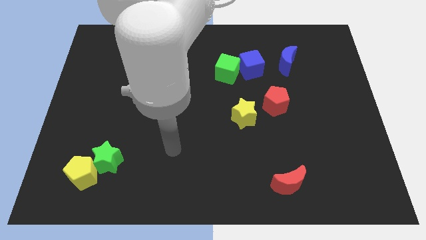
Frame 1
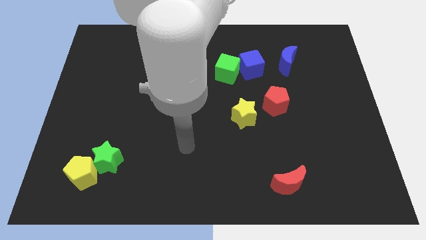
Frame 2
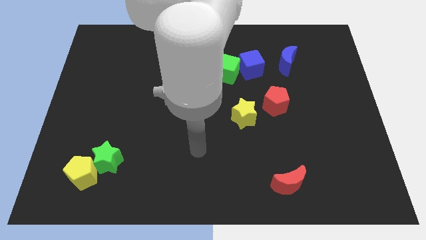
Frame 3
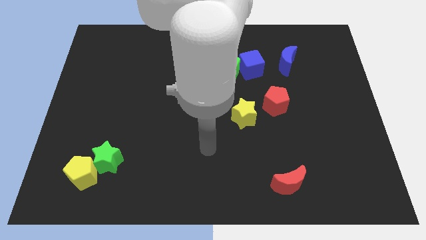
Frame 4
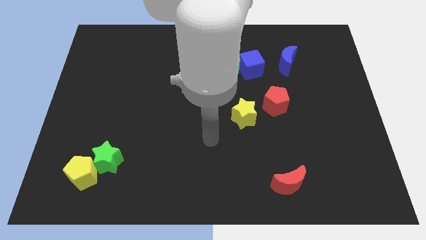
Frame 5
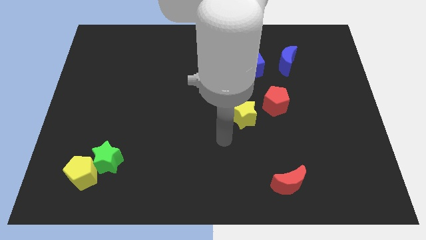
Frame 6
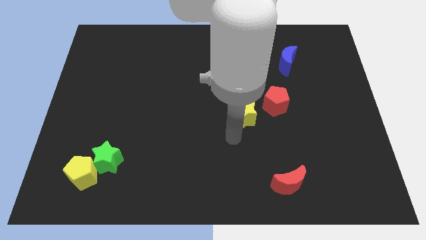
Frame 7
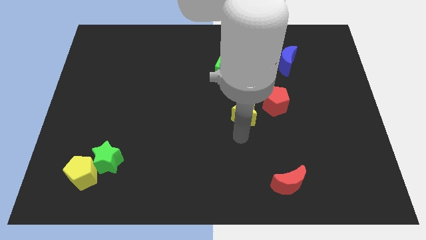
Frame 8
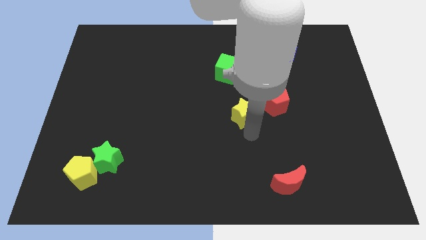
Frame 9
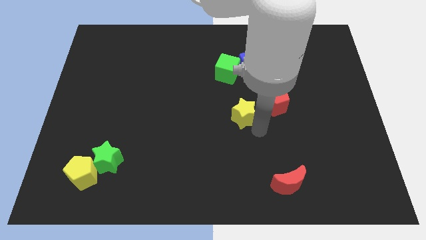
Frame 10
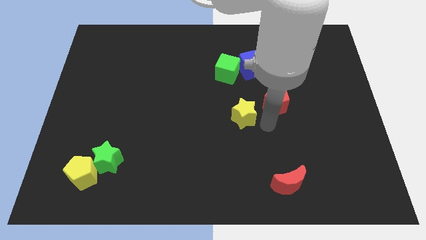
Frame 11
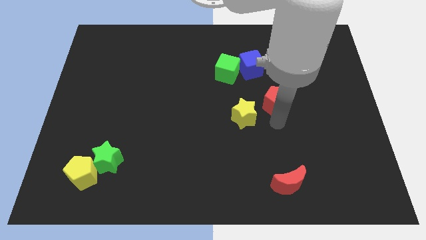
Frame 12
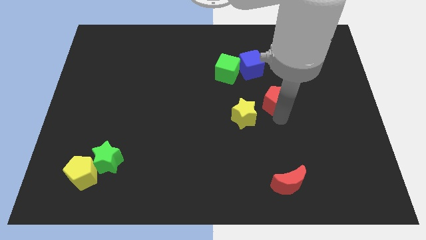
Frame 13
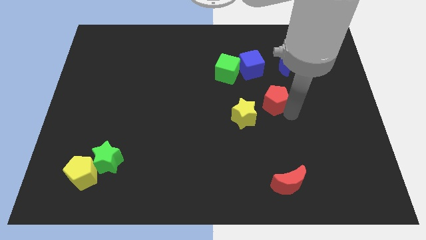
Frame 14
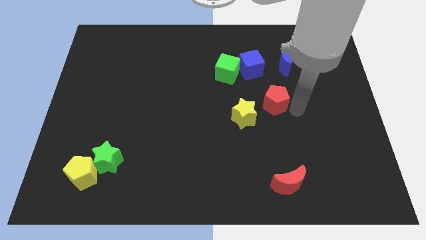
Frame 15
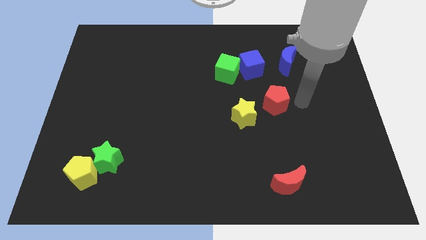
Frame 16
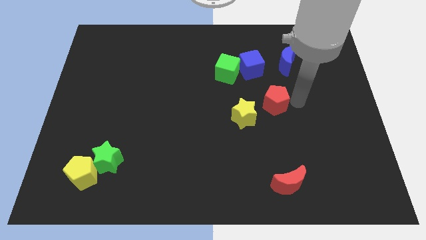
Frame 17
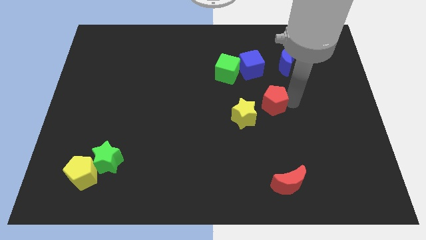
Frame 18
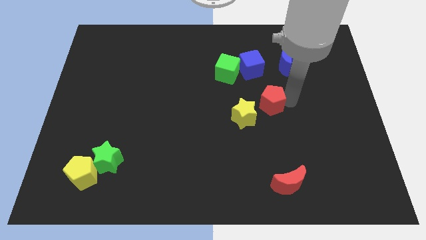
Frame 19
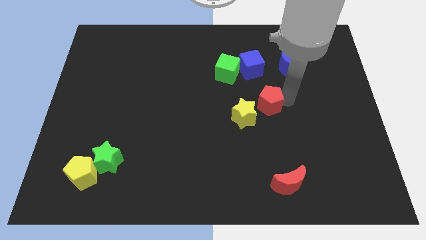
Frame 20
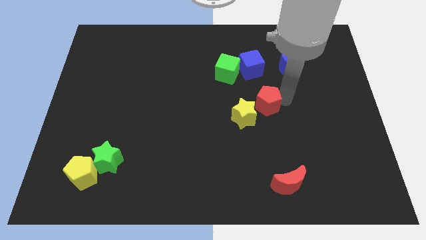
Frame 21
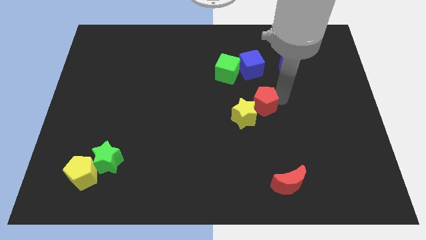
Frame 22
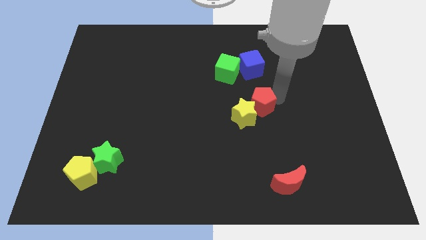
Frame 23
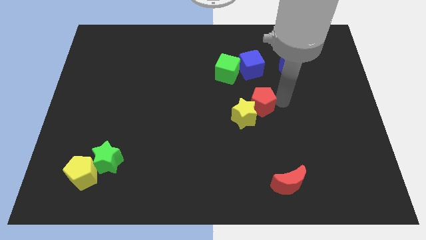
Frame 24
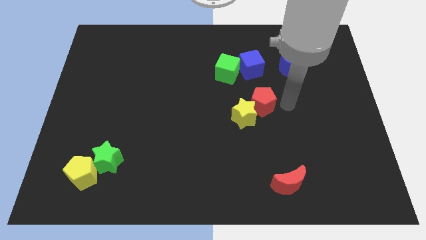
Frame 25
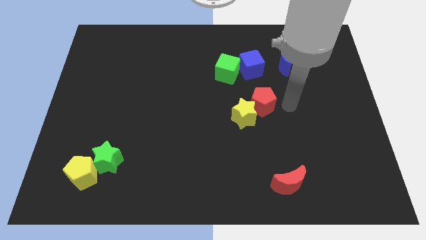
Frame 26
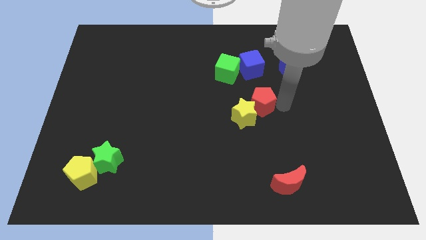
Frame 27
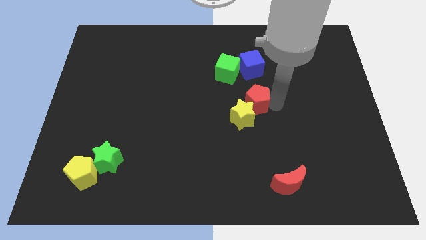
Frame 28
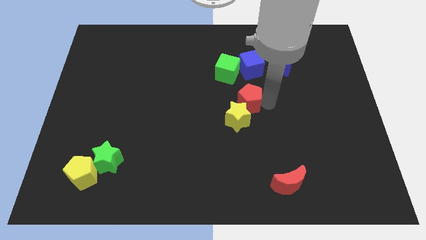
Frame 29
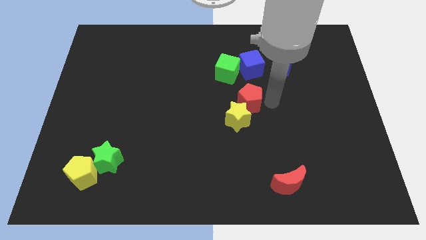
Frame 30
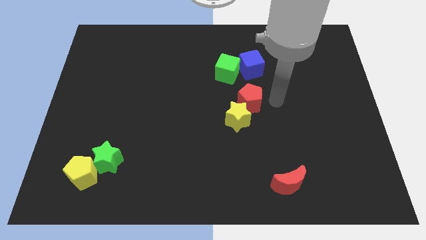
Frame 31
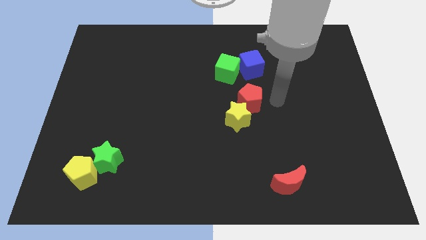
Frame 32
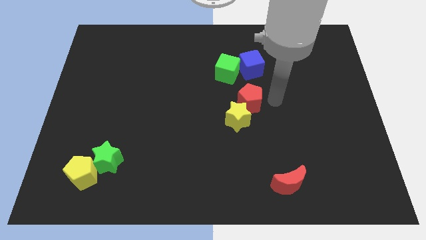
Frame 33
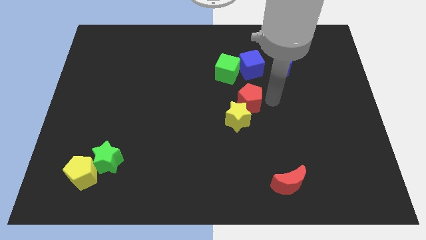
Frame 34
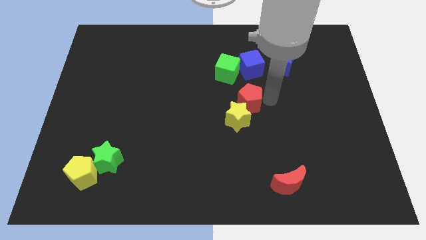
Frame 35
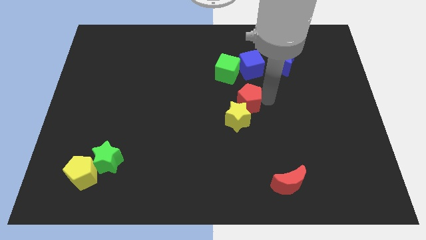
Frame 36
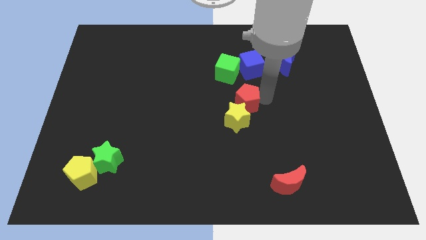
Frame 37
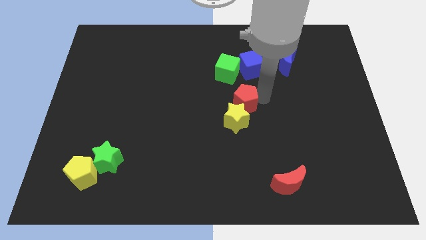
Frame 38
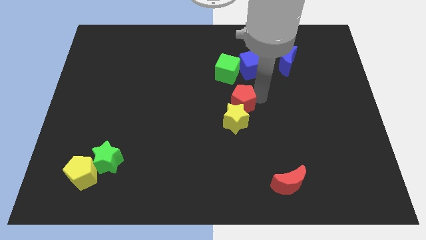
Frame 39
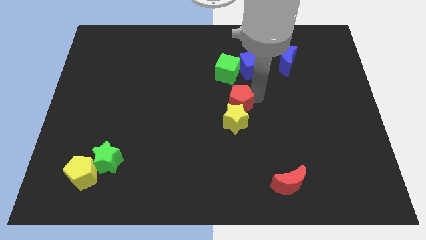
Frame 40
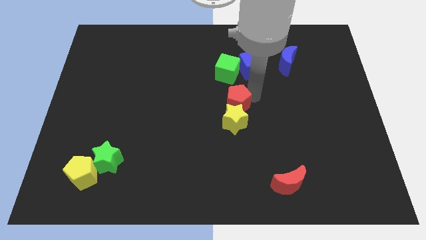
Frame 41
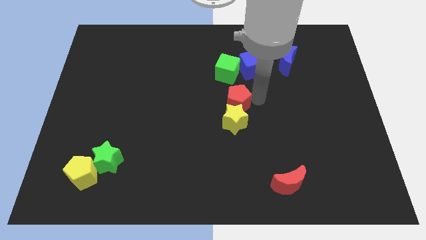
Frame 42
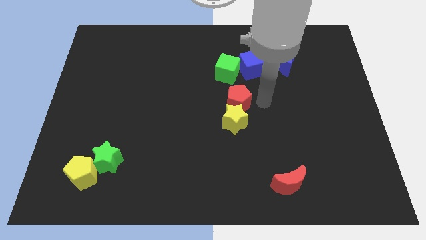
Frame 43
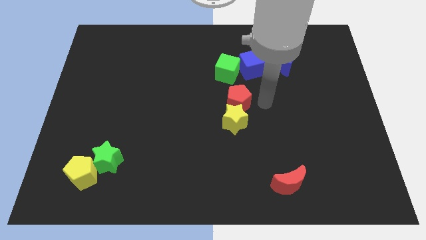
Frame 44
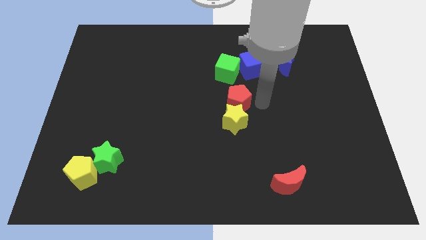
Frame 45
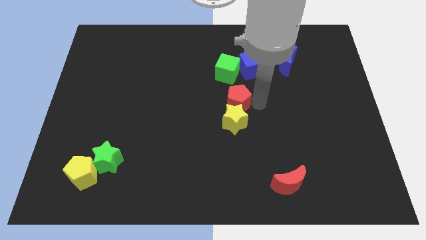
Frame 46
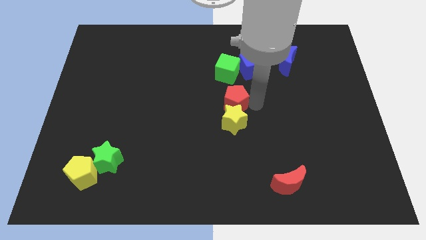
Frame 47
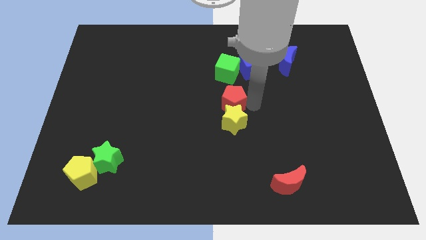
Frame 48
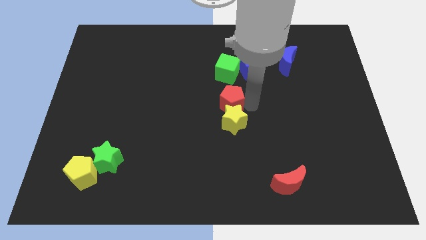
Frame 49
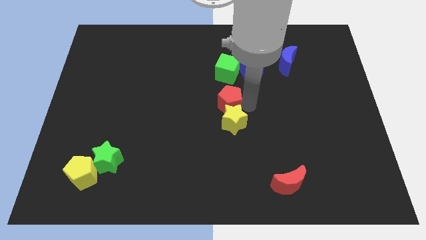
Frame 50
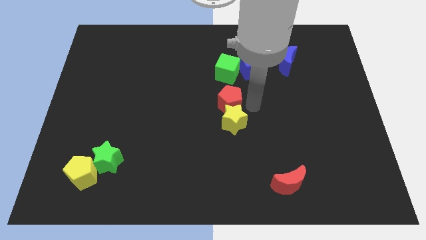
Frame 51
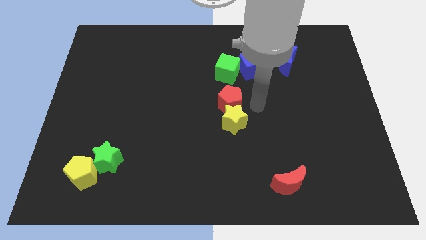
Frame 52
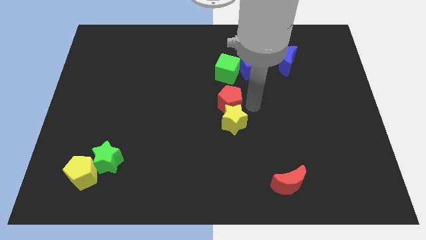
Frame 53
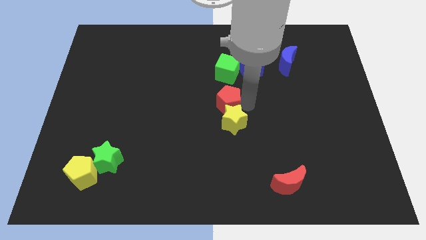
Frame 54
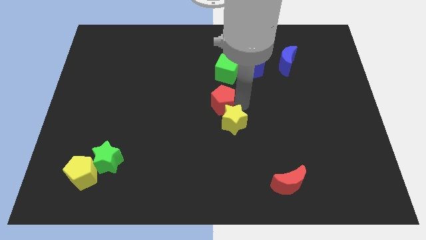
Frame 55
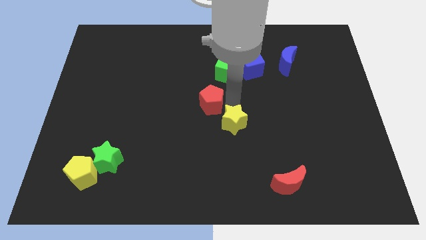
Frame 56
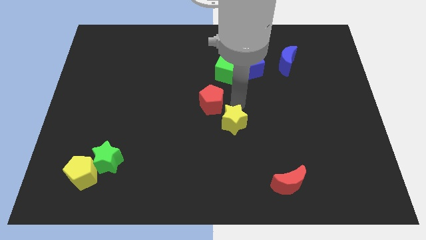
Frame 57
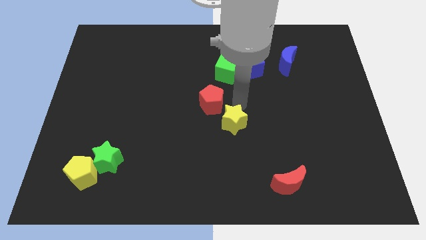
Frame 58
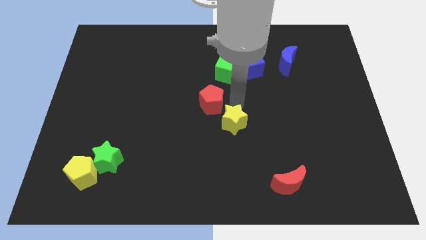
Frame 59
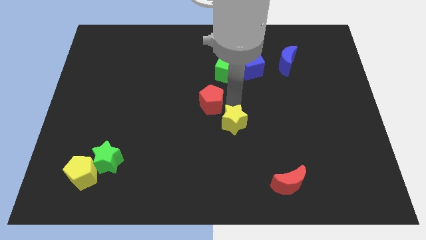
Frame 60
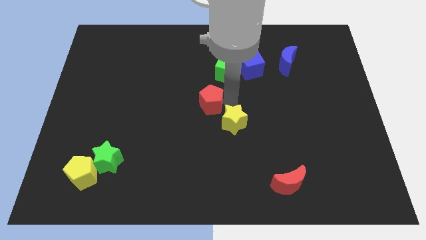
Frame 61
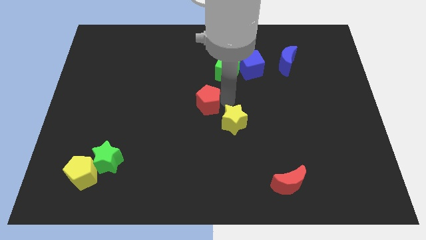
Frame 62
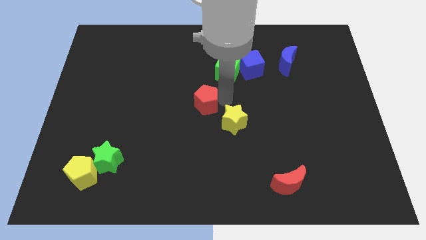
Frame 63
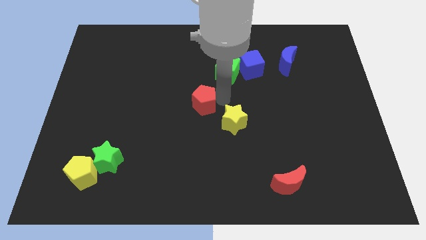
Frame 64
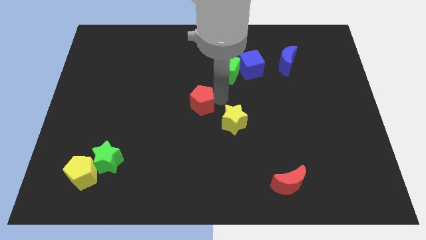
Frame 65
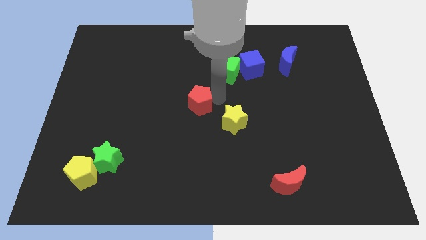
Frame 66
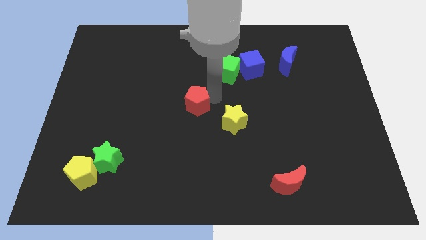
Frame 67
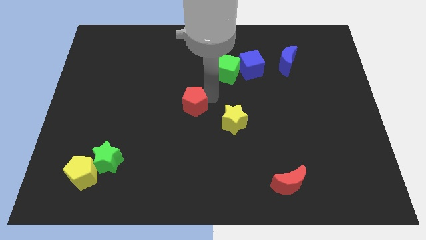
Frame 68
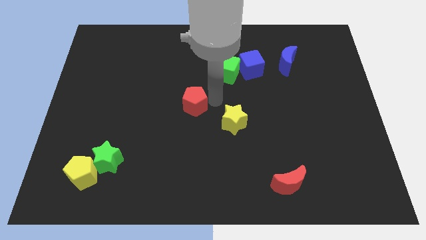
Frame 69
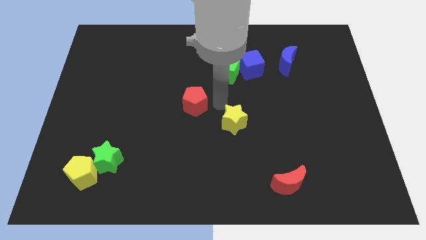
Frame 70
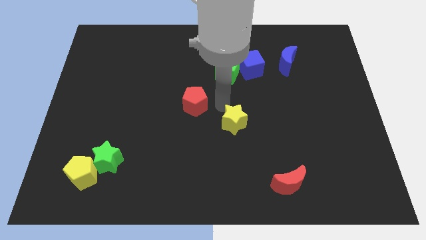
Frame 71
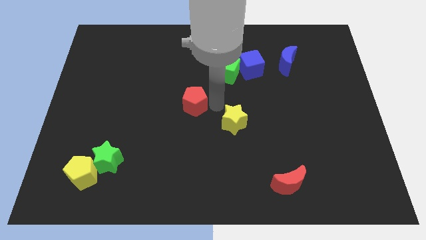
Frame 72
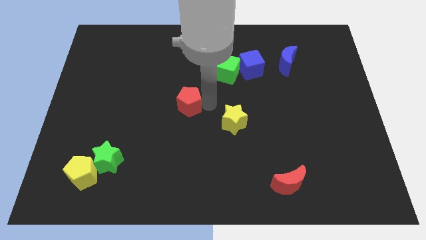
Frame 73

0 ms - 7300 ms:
slide the red pentagon to the left

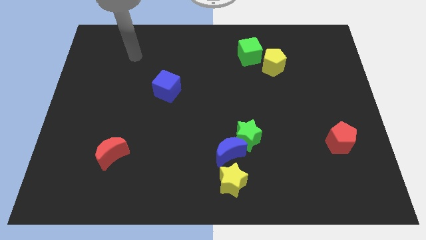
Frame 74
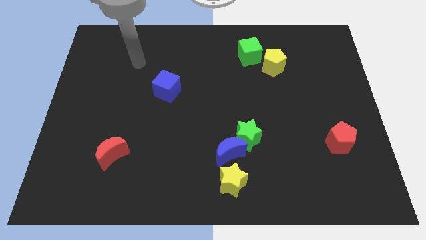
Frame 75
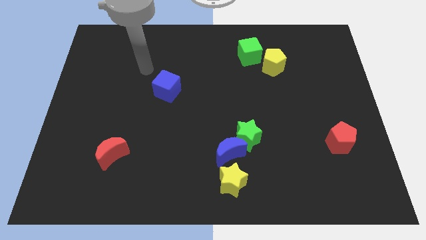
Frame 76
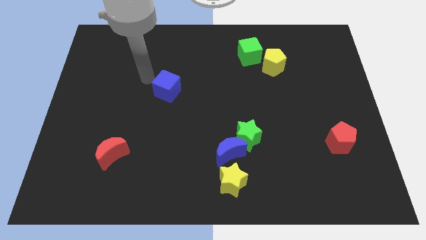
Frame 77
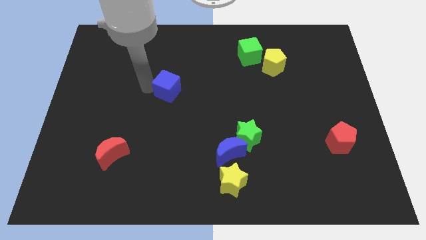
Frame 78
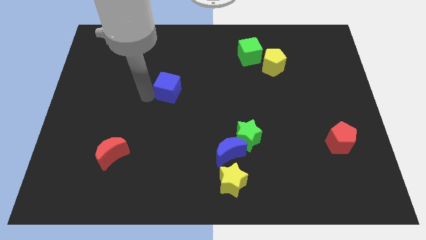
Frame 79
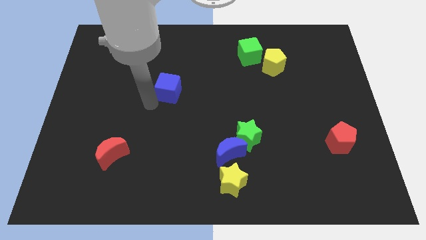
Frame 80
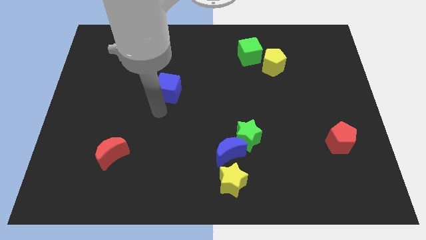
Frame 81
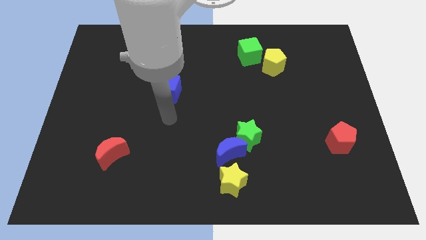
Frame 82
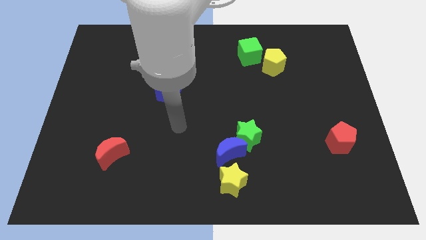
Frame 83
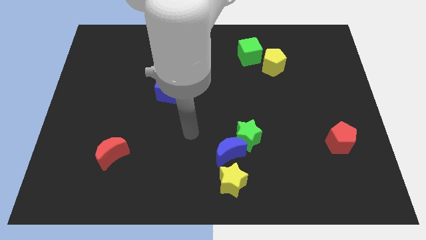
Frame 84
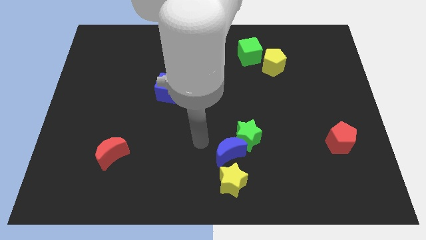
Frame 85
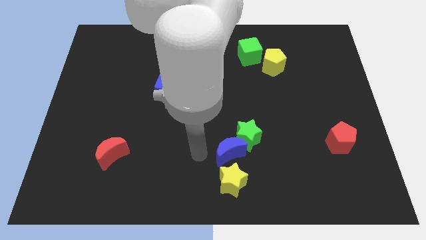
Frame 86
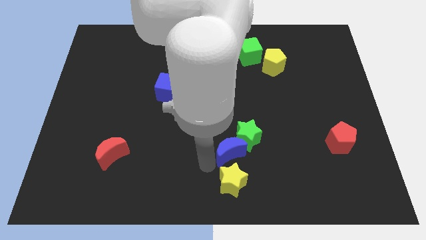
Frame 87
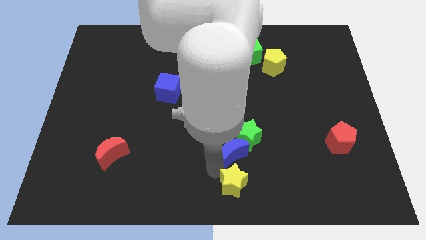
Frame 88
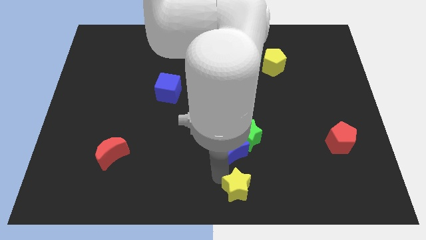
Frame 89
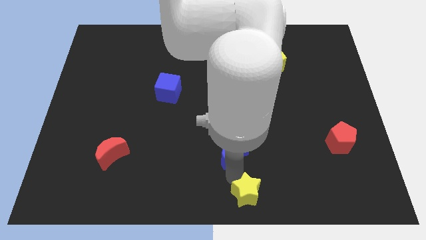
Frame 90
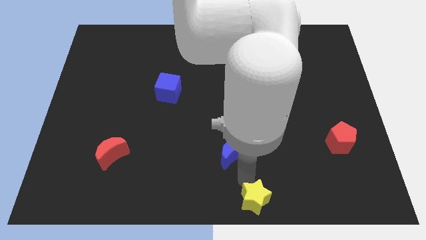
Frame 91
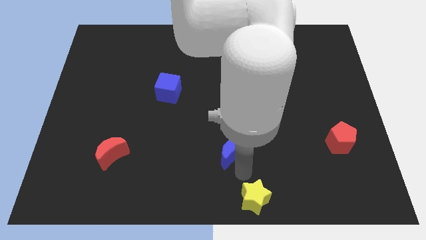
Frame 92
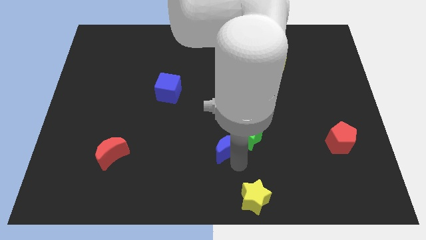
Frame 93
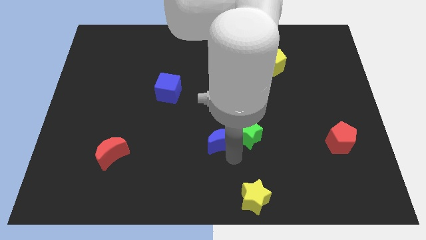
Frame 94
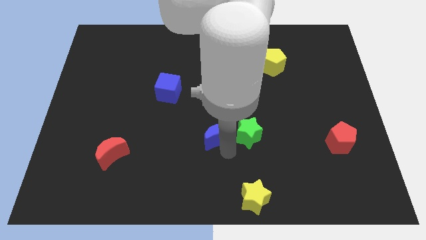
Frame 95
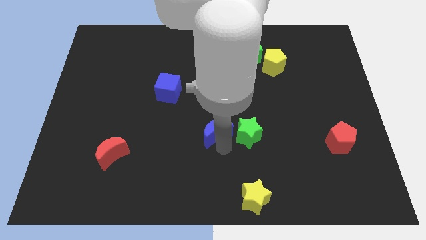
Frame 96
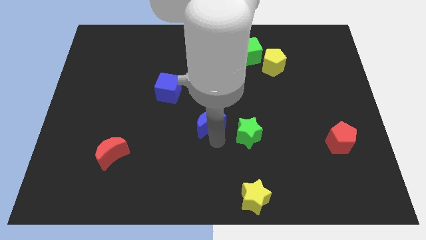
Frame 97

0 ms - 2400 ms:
slide the blue moon a bit upwards
